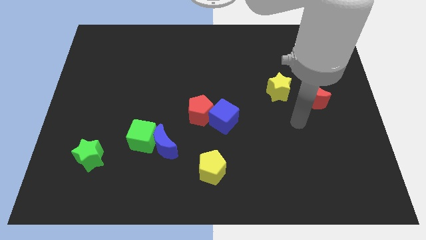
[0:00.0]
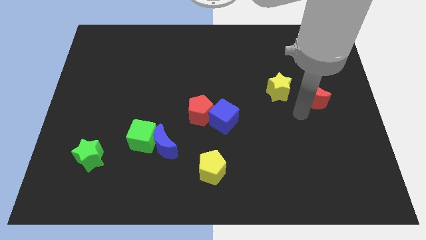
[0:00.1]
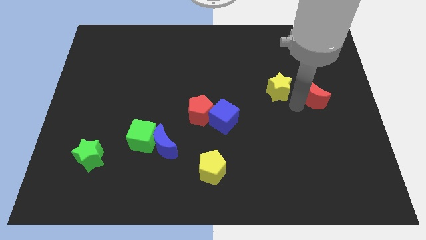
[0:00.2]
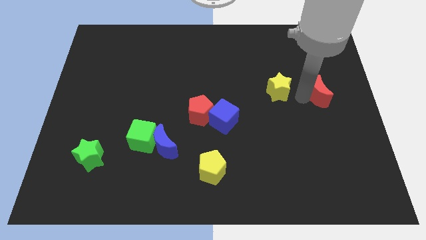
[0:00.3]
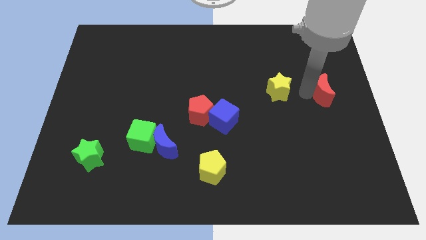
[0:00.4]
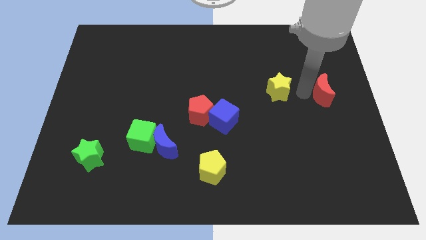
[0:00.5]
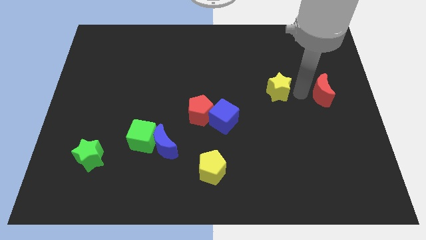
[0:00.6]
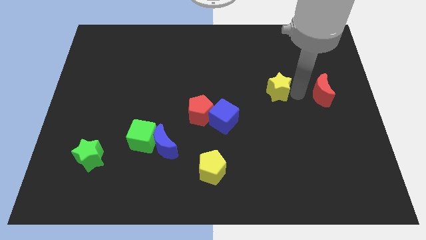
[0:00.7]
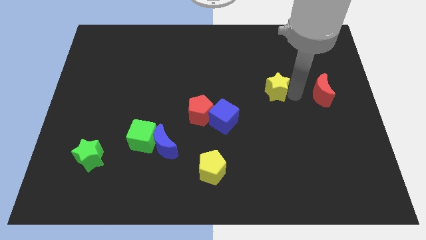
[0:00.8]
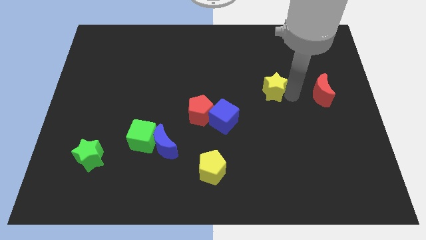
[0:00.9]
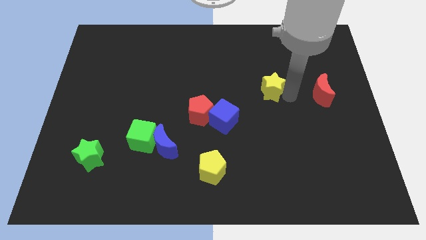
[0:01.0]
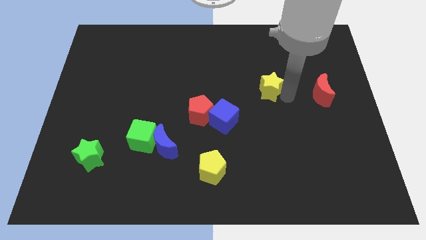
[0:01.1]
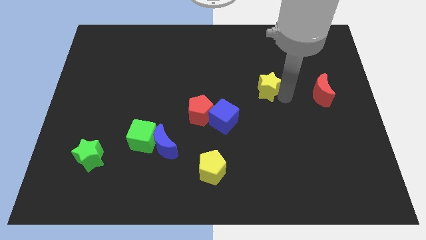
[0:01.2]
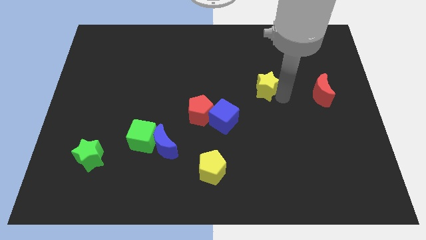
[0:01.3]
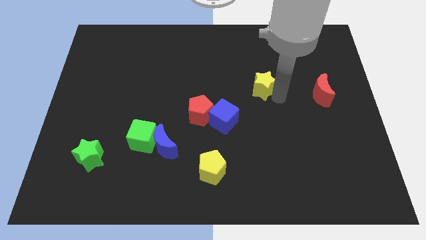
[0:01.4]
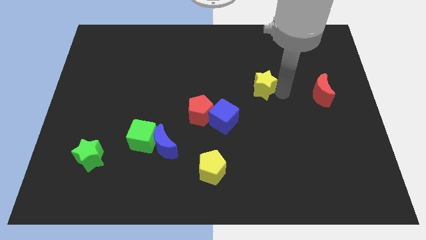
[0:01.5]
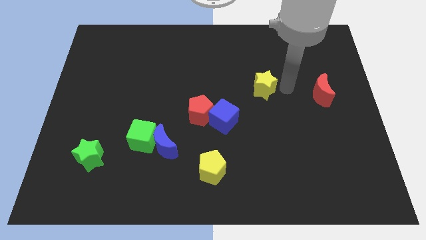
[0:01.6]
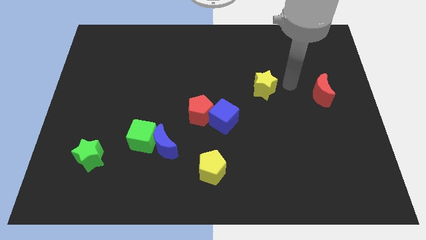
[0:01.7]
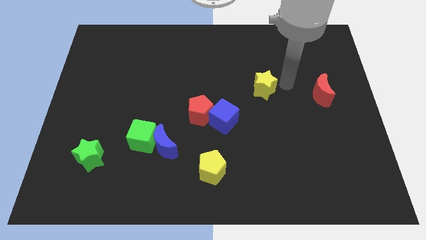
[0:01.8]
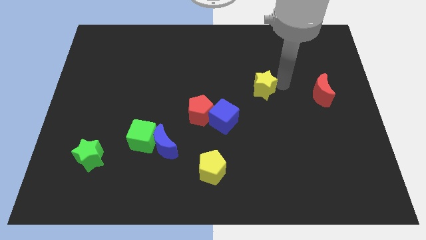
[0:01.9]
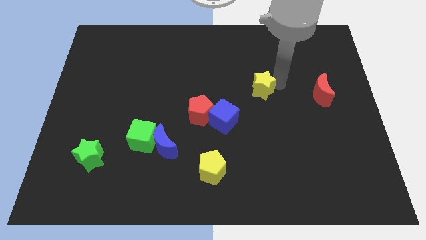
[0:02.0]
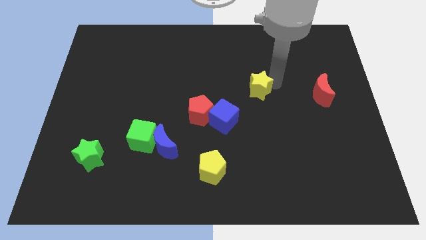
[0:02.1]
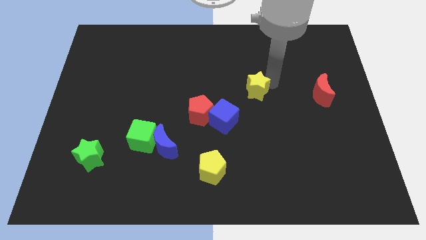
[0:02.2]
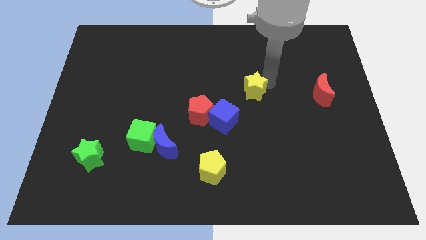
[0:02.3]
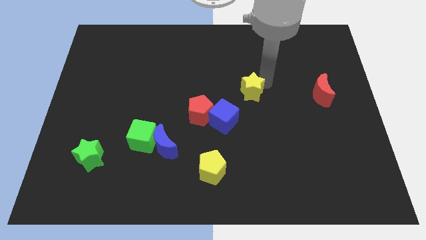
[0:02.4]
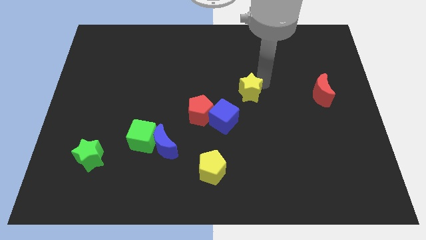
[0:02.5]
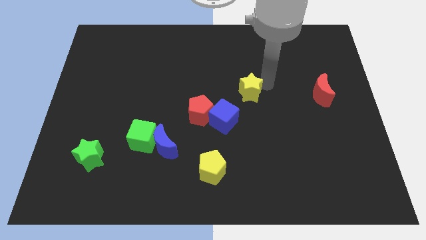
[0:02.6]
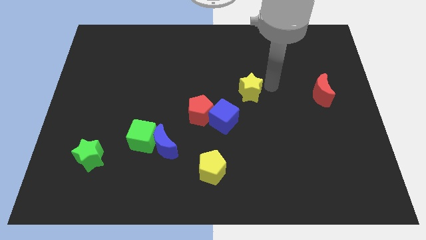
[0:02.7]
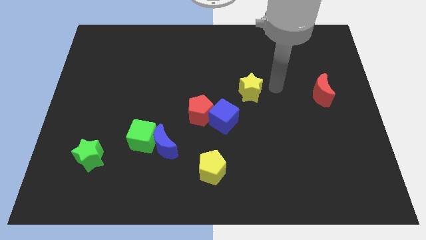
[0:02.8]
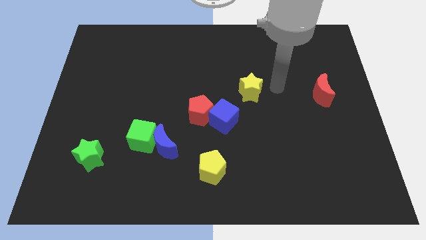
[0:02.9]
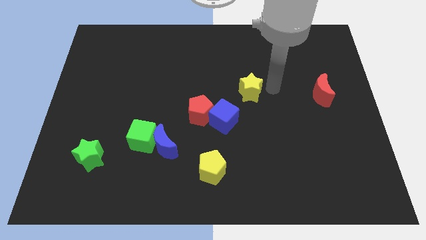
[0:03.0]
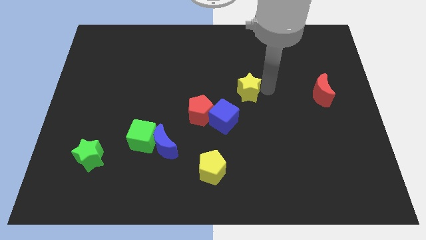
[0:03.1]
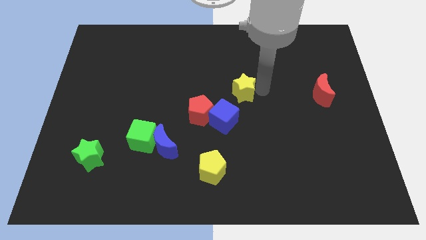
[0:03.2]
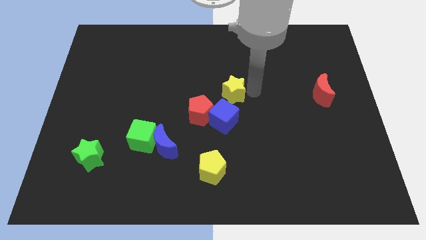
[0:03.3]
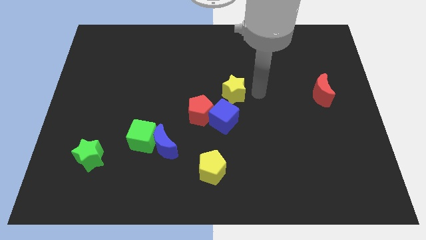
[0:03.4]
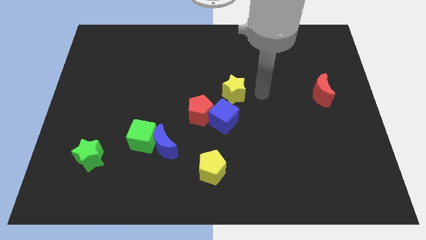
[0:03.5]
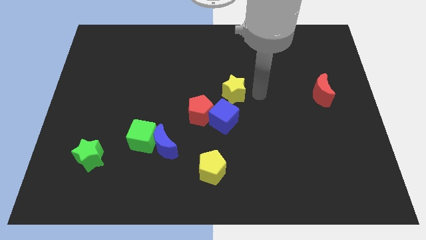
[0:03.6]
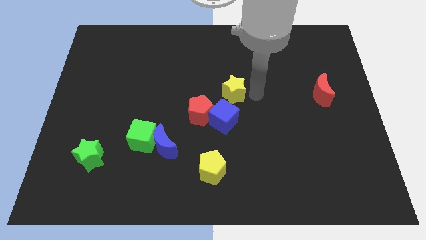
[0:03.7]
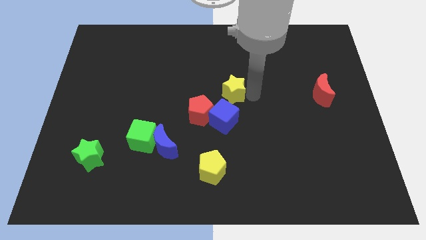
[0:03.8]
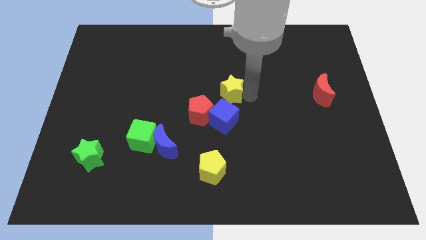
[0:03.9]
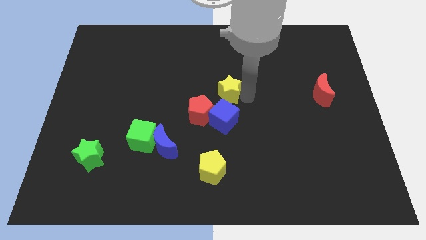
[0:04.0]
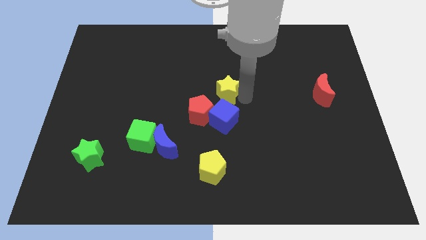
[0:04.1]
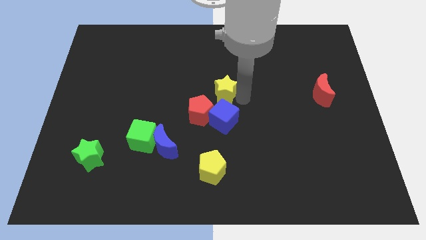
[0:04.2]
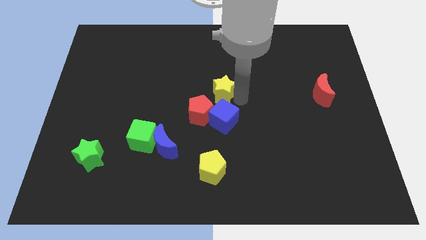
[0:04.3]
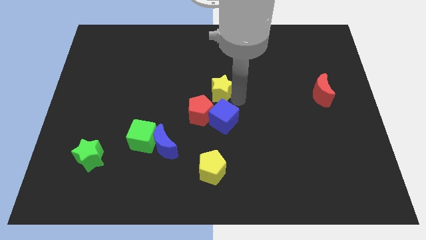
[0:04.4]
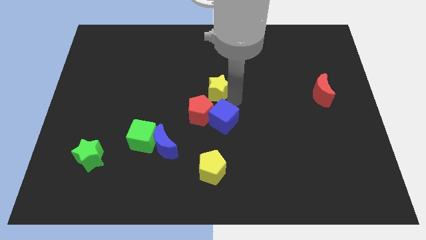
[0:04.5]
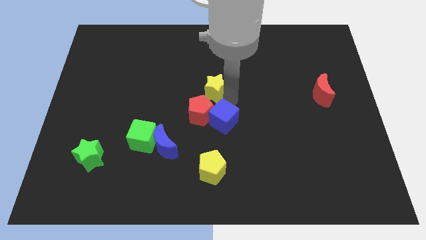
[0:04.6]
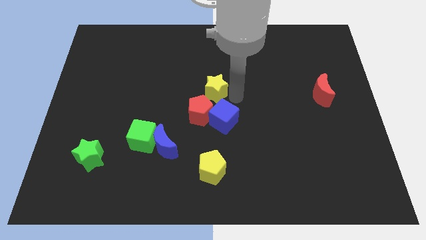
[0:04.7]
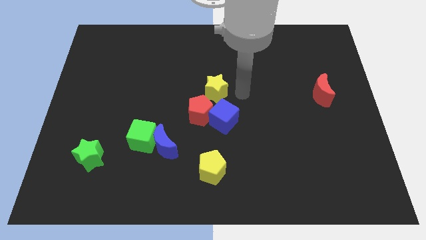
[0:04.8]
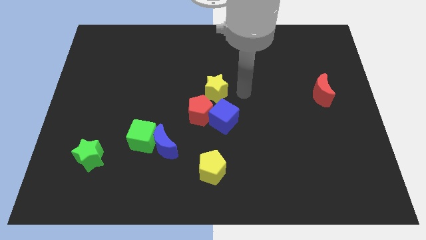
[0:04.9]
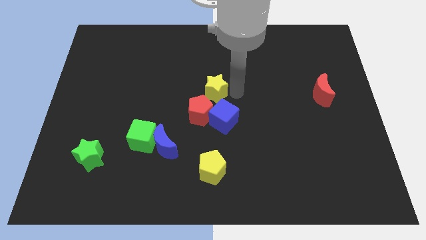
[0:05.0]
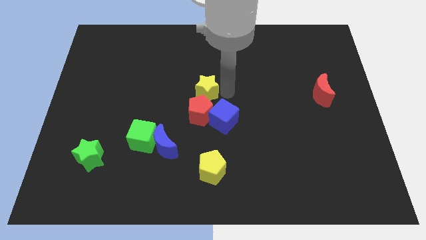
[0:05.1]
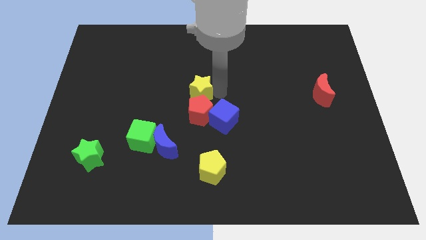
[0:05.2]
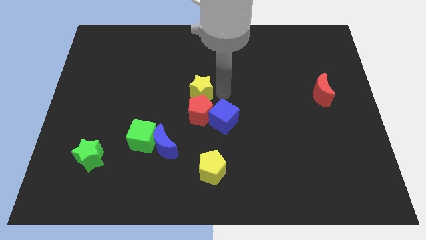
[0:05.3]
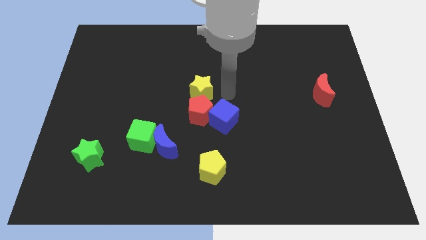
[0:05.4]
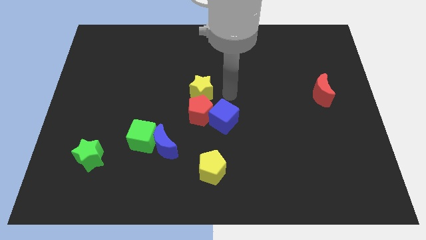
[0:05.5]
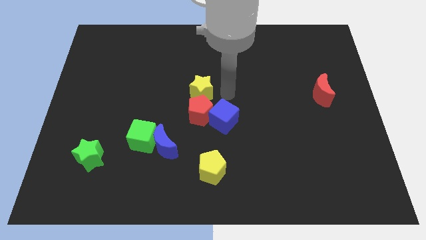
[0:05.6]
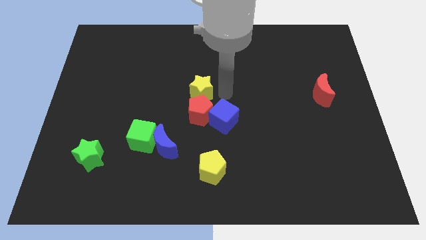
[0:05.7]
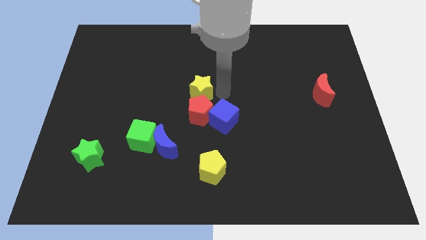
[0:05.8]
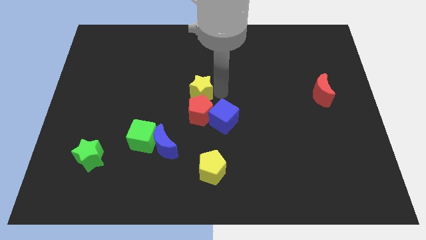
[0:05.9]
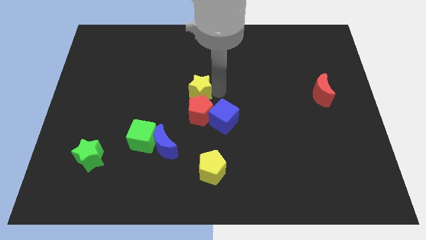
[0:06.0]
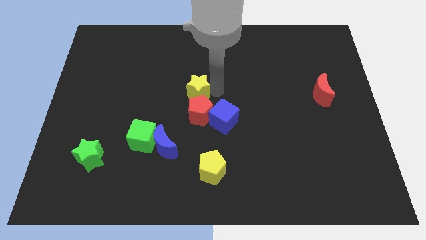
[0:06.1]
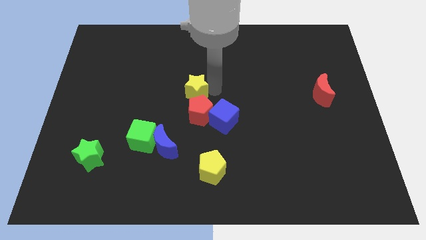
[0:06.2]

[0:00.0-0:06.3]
slide the yellow star to the left

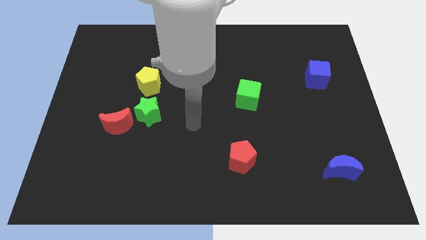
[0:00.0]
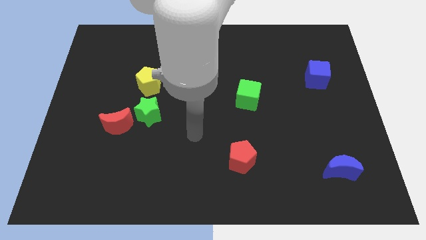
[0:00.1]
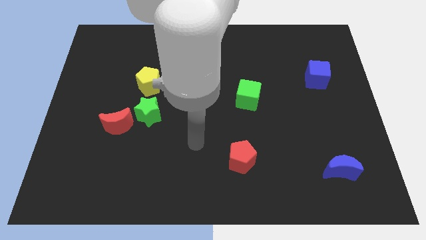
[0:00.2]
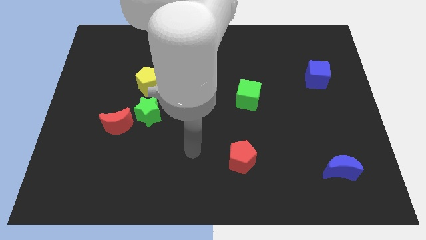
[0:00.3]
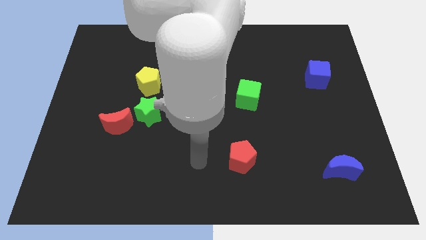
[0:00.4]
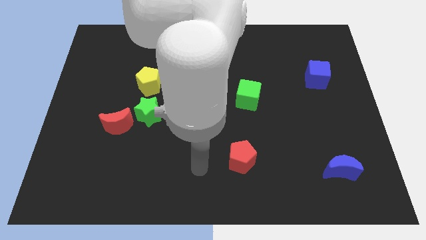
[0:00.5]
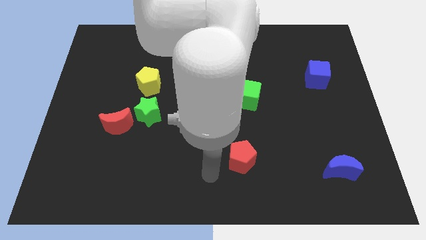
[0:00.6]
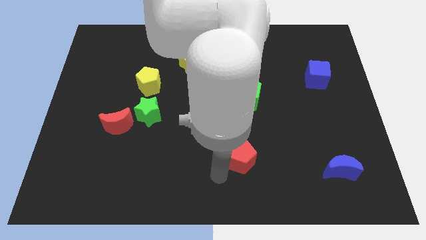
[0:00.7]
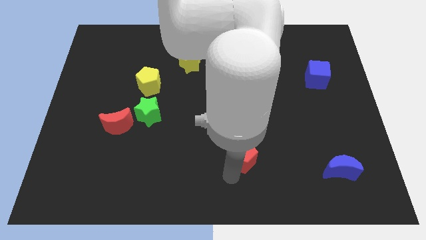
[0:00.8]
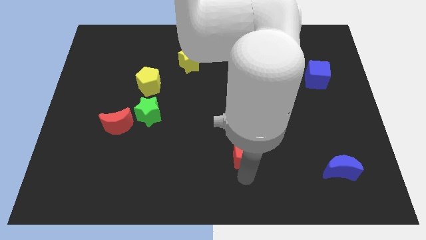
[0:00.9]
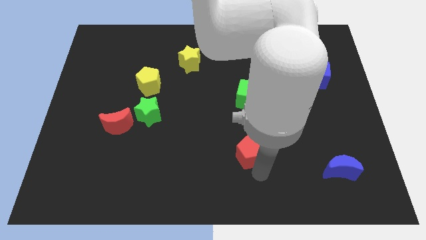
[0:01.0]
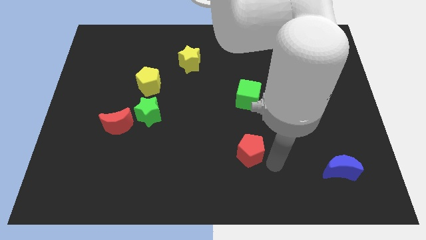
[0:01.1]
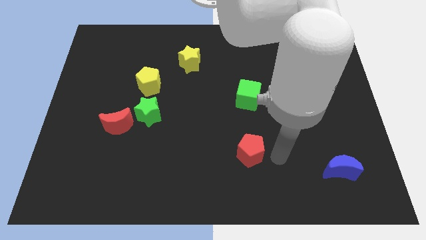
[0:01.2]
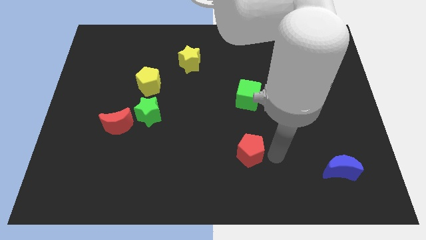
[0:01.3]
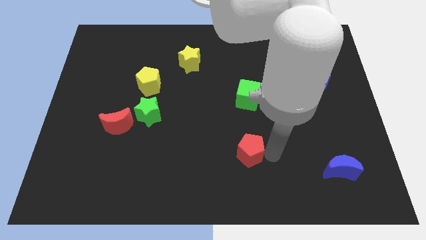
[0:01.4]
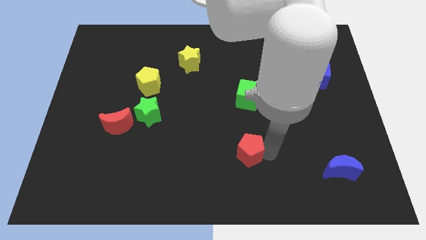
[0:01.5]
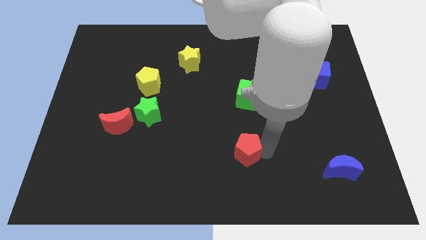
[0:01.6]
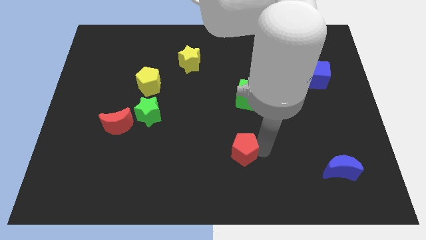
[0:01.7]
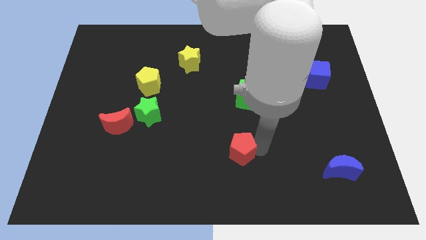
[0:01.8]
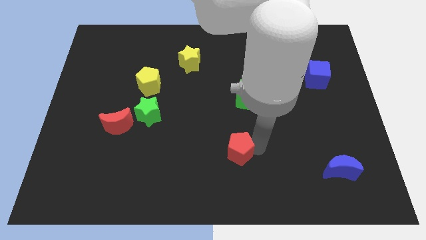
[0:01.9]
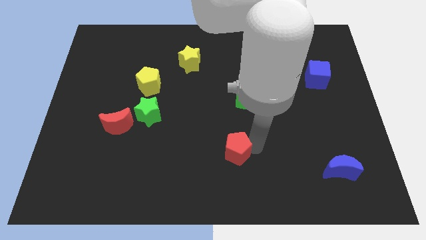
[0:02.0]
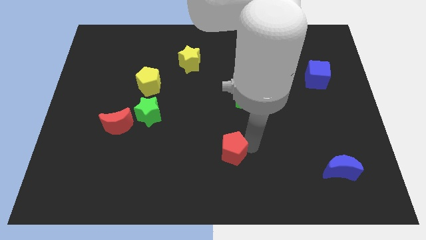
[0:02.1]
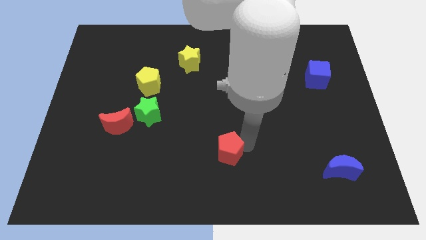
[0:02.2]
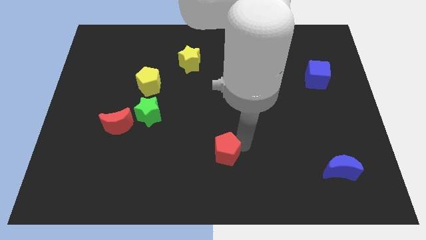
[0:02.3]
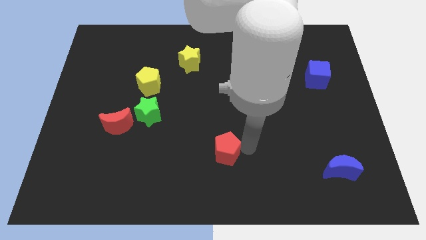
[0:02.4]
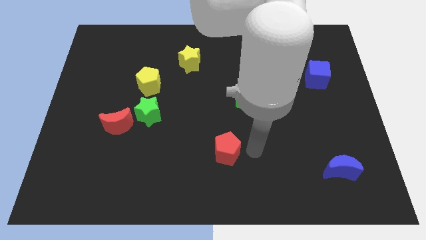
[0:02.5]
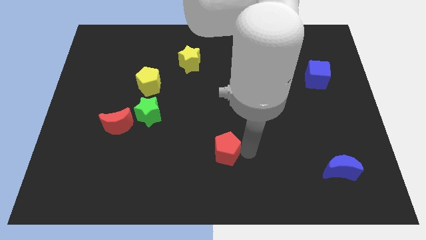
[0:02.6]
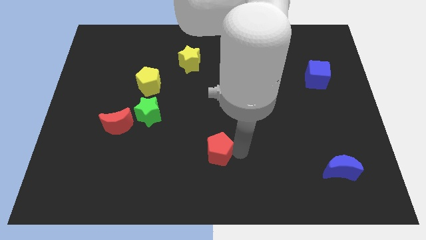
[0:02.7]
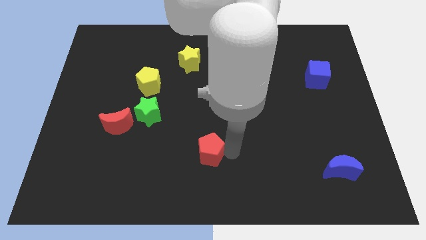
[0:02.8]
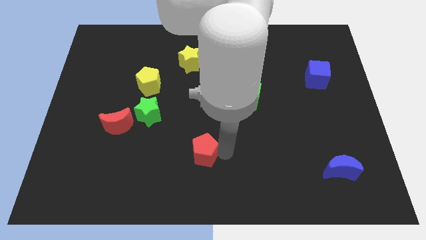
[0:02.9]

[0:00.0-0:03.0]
slightly slide the red pentagon left
